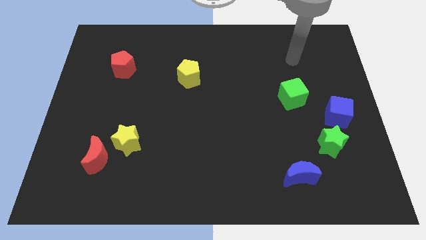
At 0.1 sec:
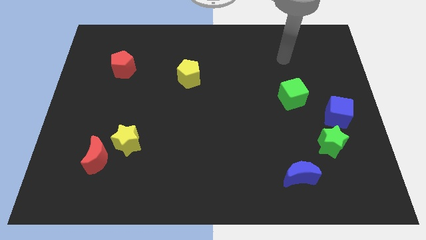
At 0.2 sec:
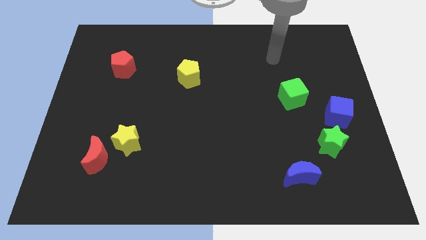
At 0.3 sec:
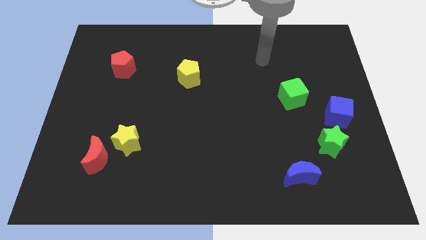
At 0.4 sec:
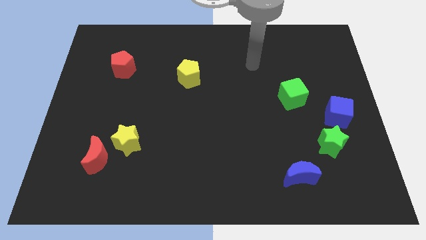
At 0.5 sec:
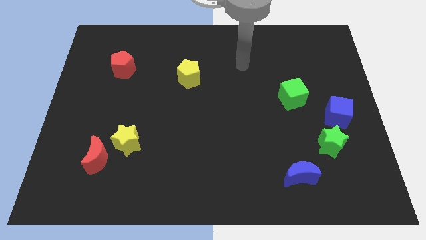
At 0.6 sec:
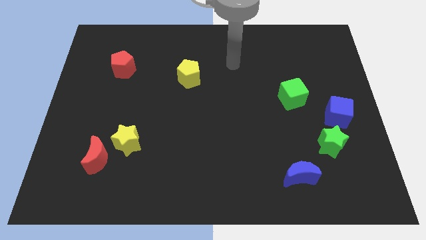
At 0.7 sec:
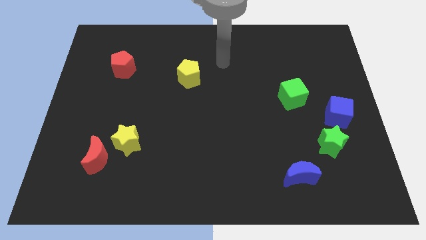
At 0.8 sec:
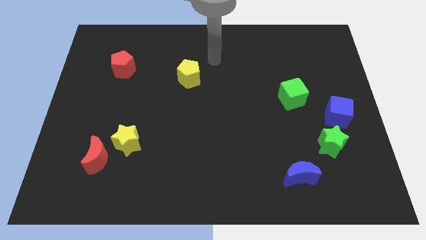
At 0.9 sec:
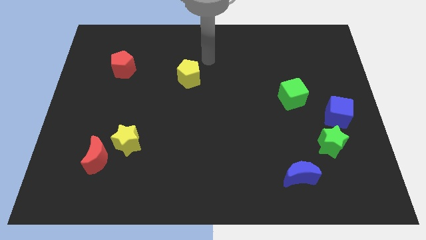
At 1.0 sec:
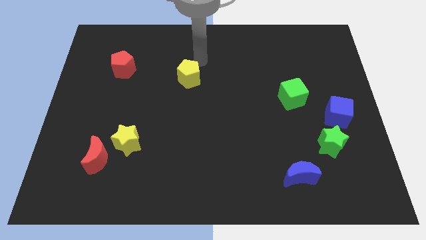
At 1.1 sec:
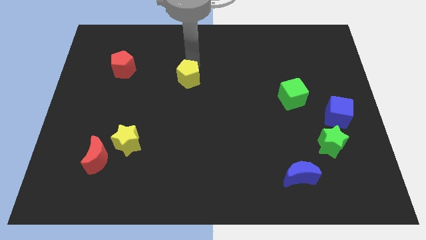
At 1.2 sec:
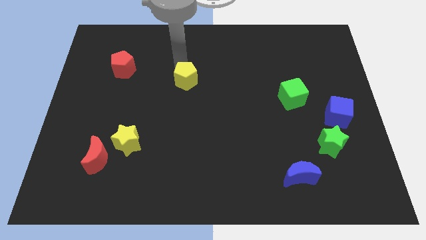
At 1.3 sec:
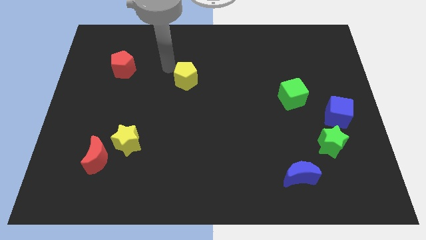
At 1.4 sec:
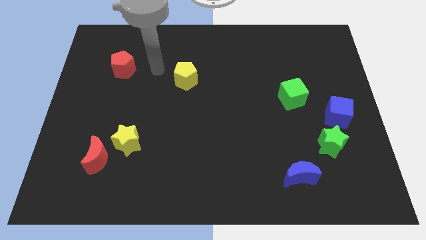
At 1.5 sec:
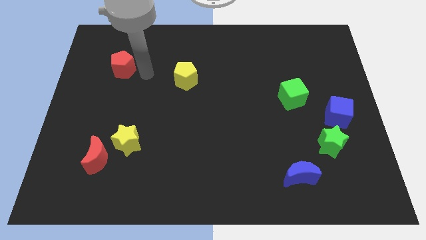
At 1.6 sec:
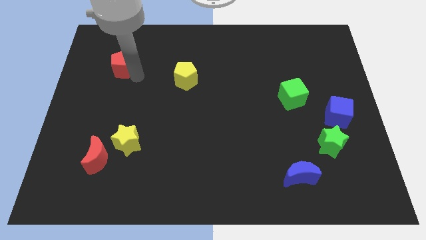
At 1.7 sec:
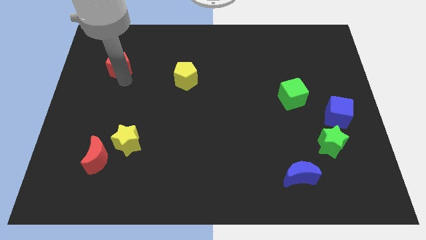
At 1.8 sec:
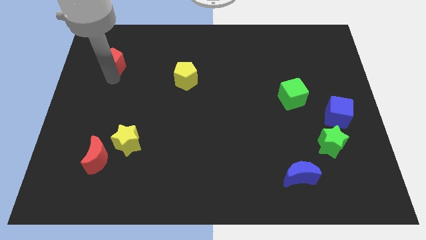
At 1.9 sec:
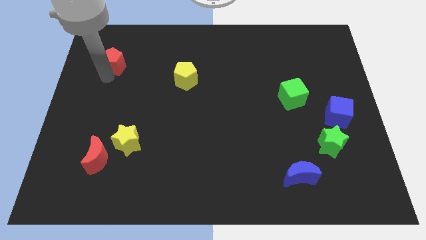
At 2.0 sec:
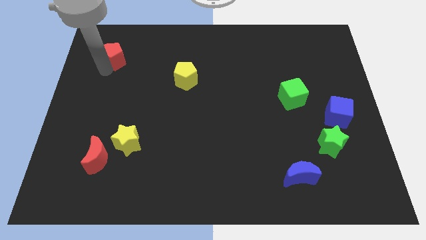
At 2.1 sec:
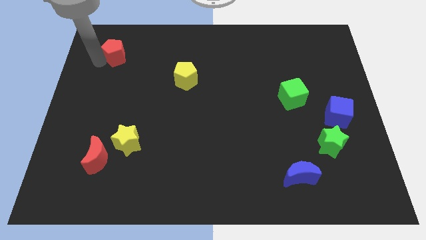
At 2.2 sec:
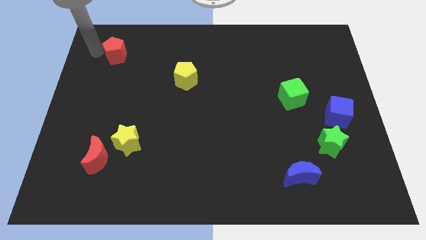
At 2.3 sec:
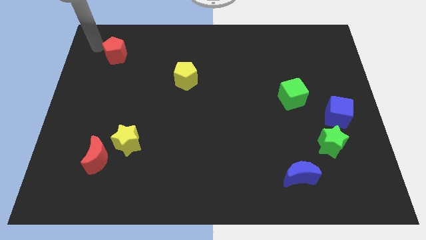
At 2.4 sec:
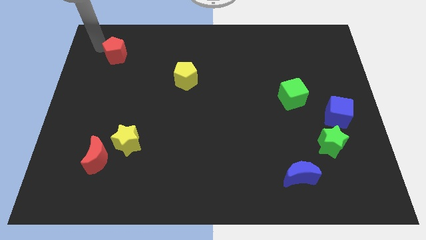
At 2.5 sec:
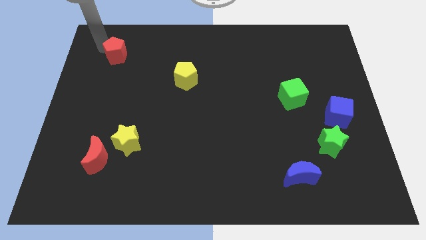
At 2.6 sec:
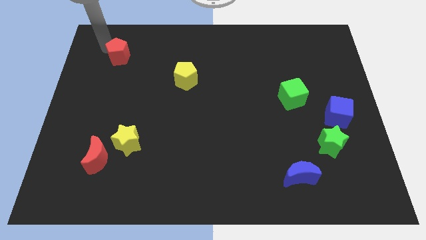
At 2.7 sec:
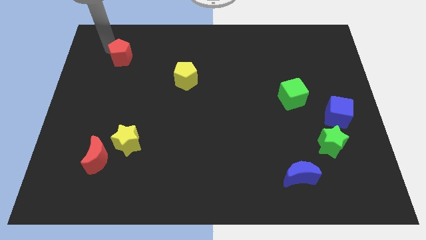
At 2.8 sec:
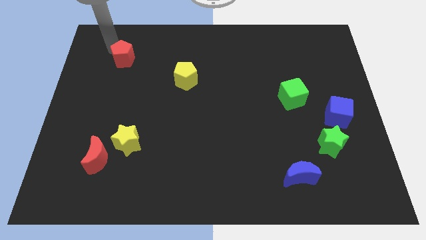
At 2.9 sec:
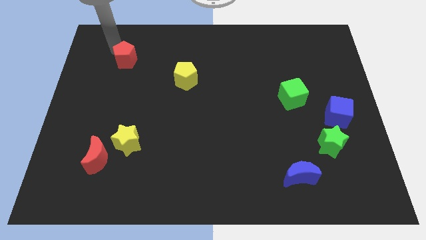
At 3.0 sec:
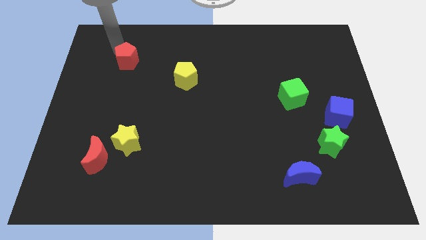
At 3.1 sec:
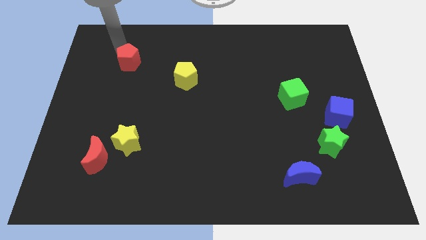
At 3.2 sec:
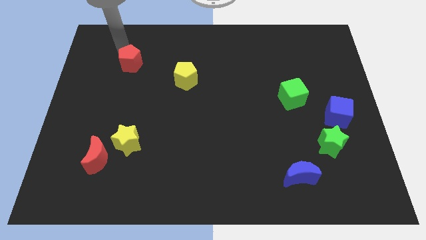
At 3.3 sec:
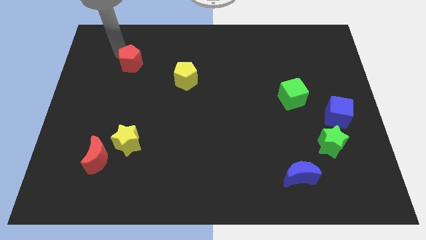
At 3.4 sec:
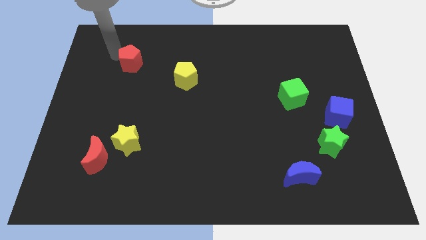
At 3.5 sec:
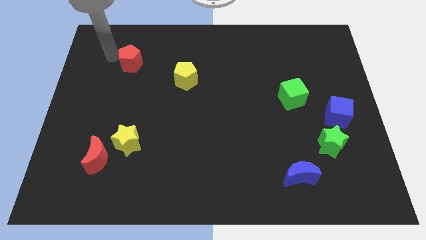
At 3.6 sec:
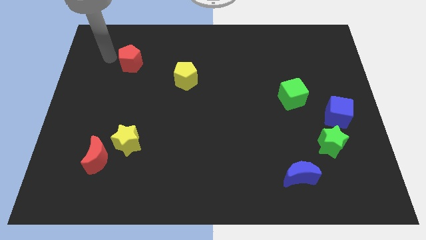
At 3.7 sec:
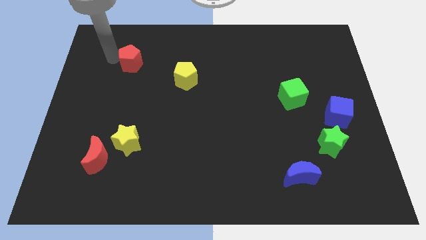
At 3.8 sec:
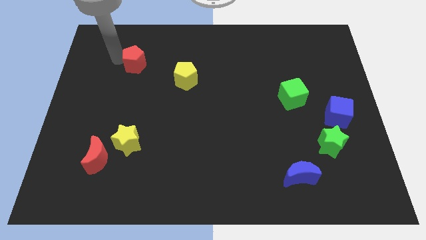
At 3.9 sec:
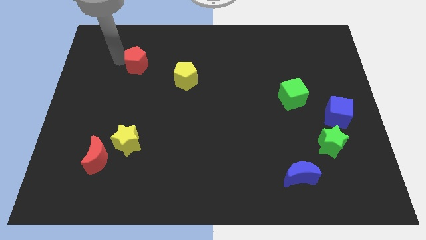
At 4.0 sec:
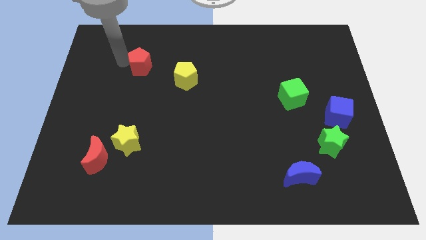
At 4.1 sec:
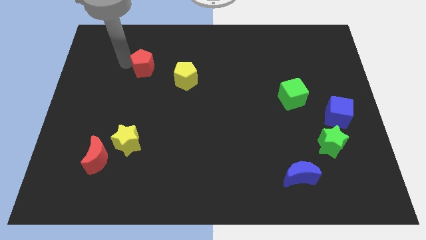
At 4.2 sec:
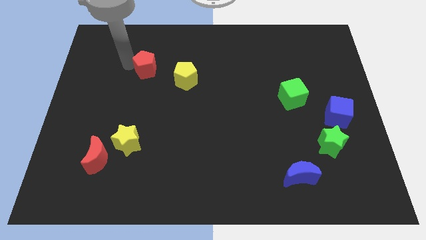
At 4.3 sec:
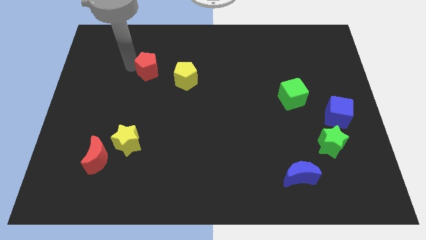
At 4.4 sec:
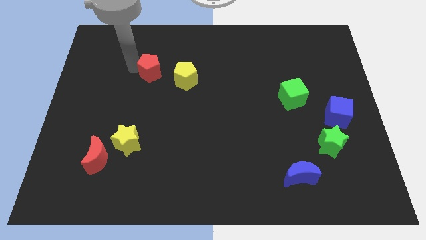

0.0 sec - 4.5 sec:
slightly move the red pentagon to the right

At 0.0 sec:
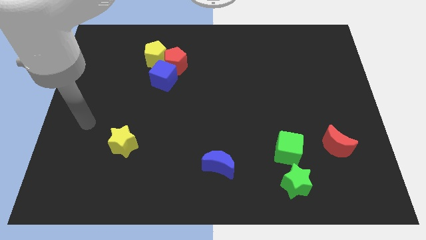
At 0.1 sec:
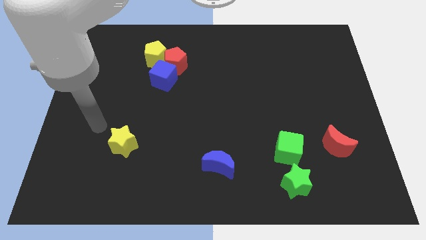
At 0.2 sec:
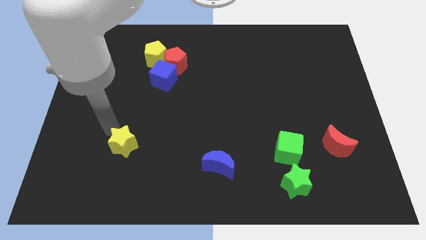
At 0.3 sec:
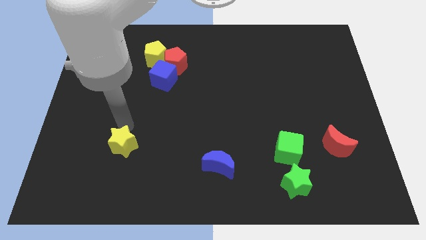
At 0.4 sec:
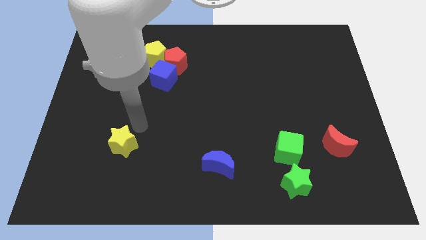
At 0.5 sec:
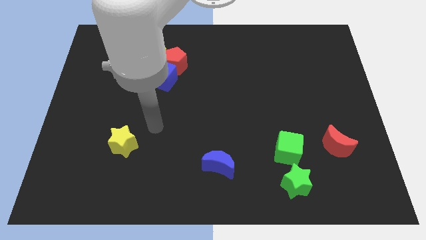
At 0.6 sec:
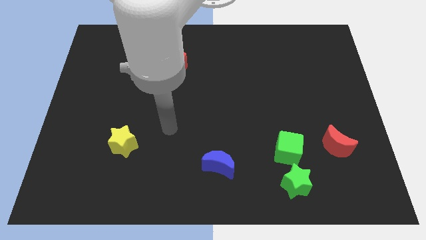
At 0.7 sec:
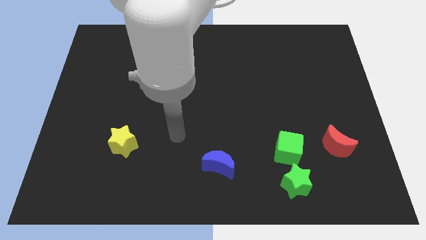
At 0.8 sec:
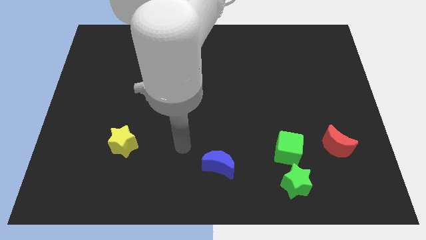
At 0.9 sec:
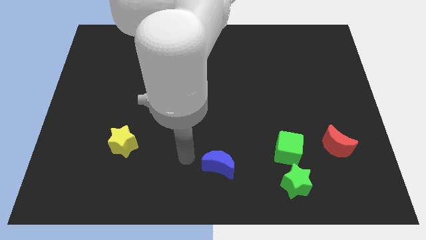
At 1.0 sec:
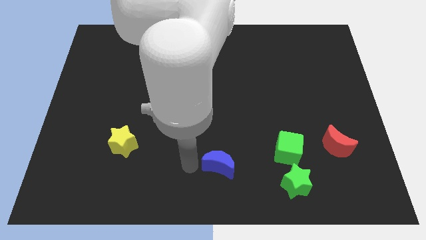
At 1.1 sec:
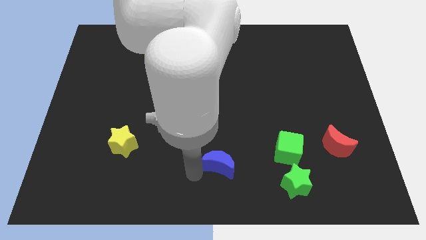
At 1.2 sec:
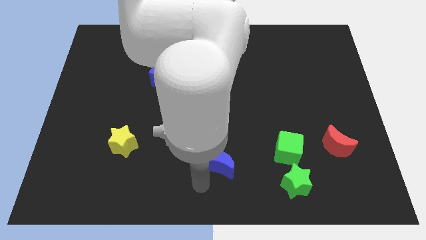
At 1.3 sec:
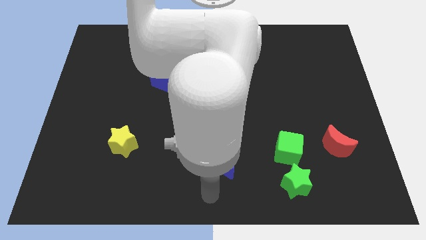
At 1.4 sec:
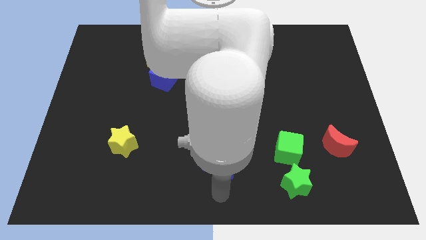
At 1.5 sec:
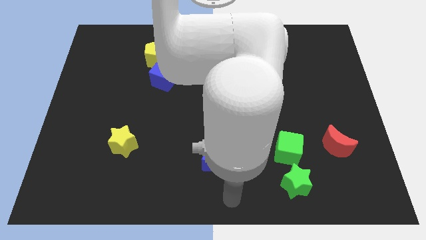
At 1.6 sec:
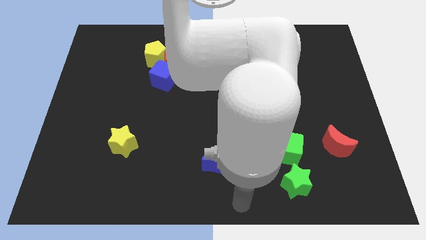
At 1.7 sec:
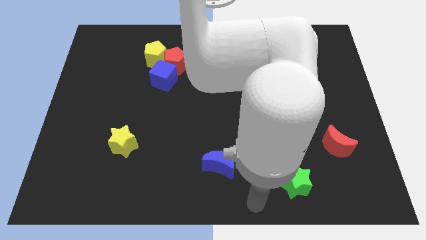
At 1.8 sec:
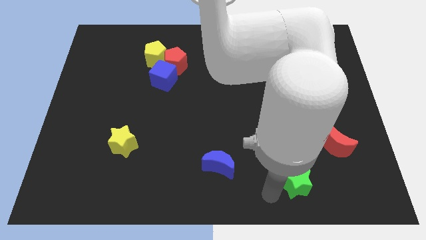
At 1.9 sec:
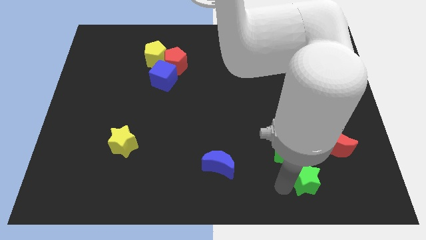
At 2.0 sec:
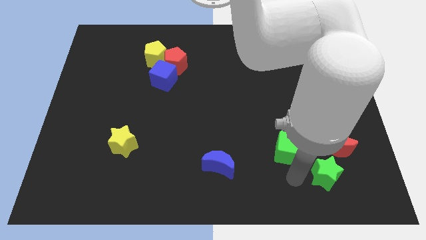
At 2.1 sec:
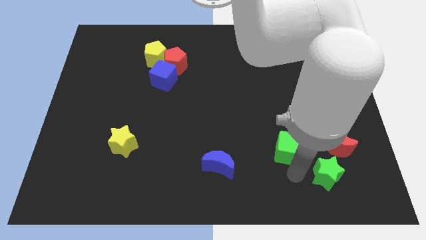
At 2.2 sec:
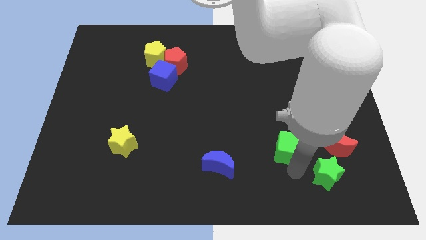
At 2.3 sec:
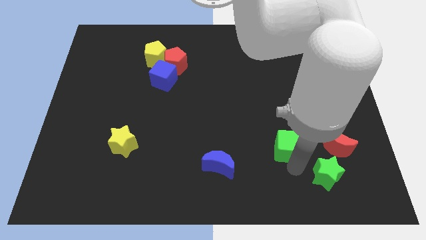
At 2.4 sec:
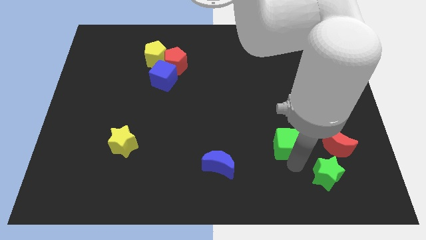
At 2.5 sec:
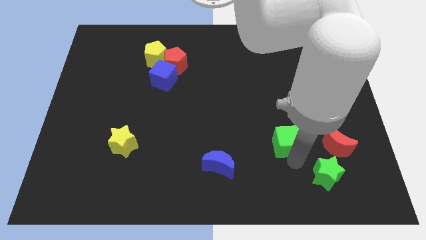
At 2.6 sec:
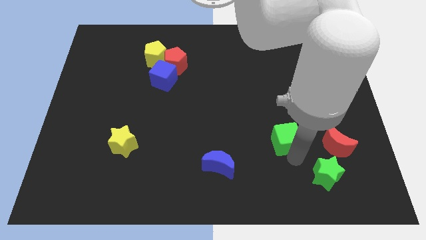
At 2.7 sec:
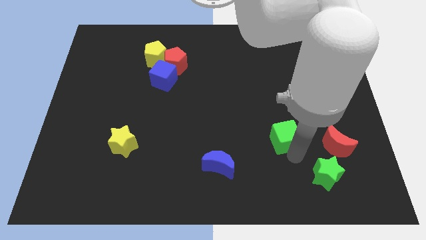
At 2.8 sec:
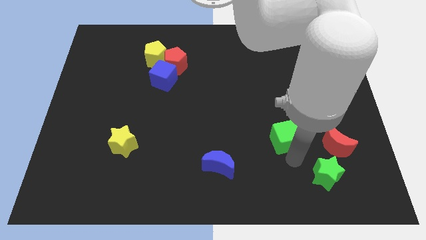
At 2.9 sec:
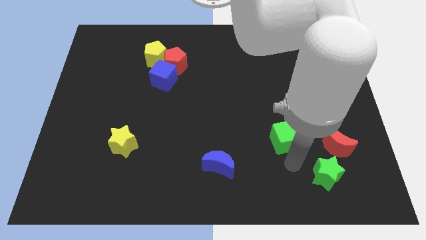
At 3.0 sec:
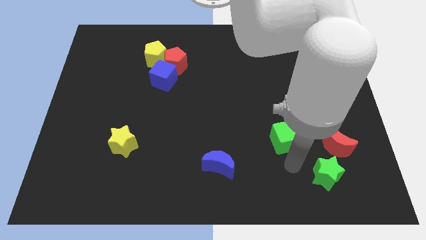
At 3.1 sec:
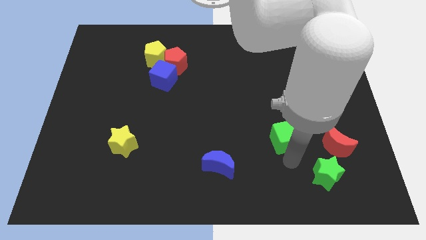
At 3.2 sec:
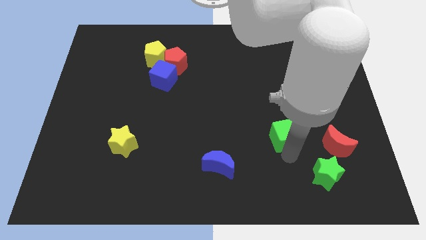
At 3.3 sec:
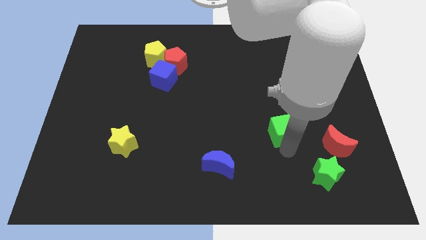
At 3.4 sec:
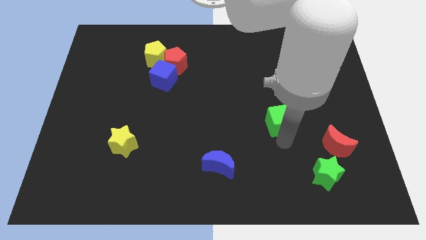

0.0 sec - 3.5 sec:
move the green cube a little bit up
